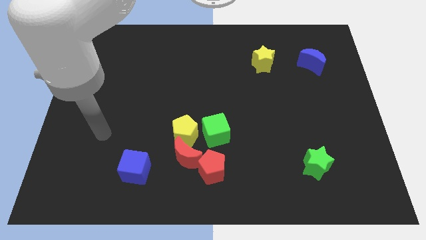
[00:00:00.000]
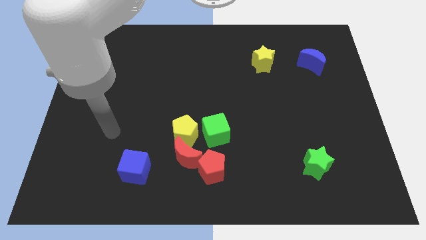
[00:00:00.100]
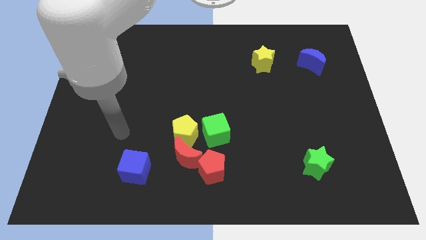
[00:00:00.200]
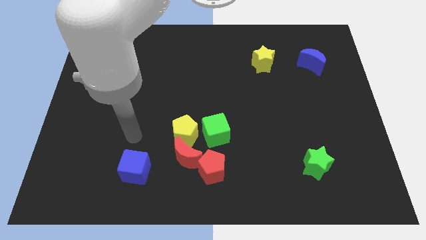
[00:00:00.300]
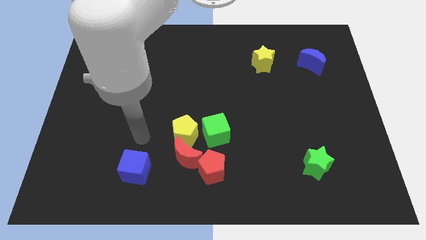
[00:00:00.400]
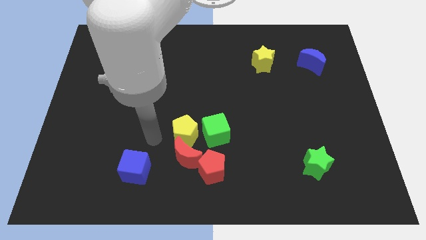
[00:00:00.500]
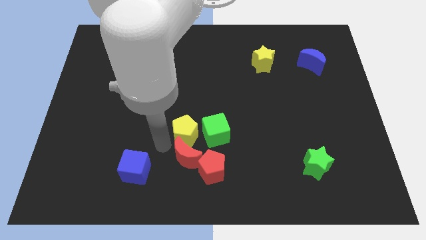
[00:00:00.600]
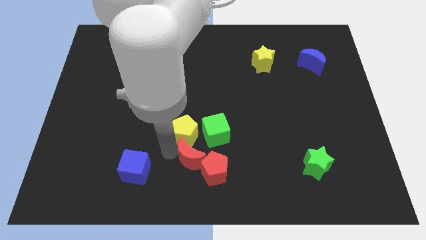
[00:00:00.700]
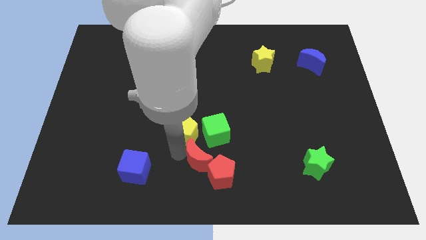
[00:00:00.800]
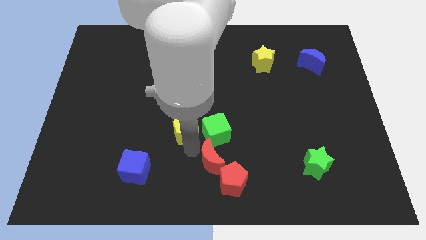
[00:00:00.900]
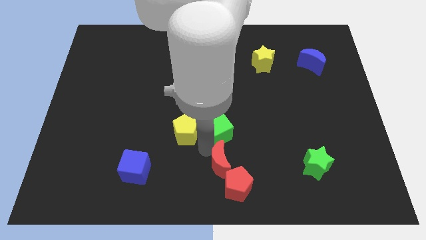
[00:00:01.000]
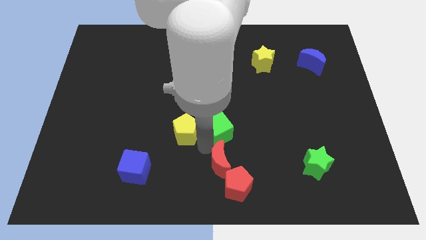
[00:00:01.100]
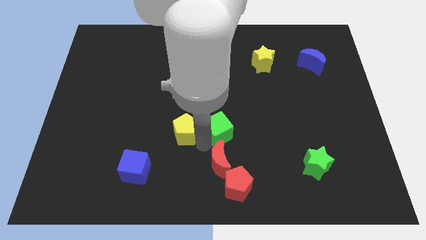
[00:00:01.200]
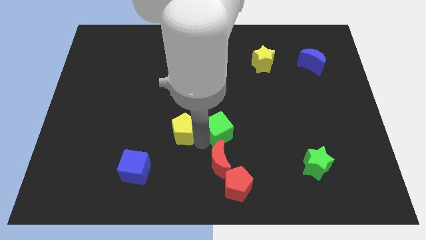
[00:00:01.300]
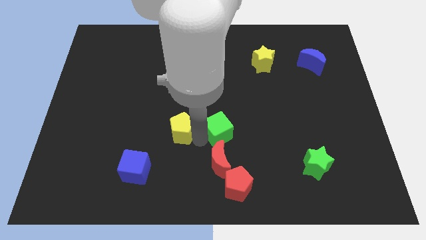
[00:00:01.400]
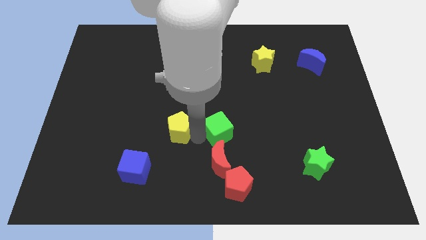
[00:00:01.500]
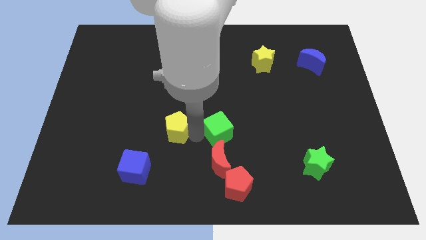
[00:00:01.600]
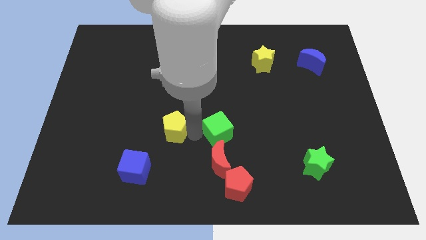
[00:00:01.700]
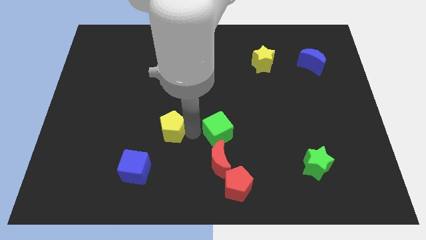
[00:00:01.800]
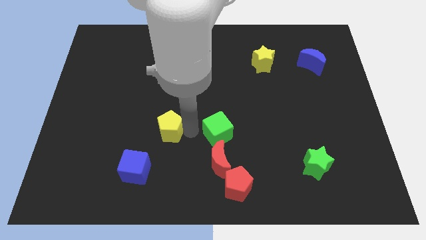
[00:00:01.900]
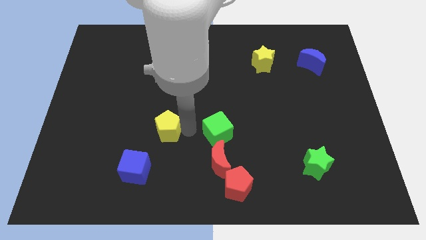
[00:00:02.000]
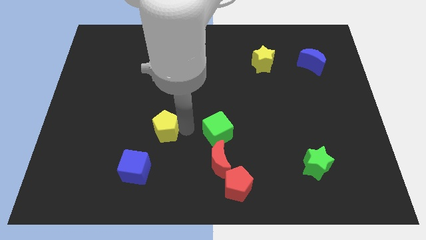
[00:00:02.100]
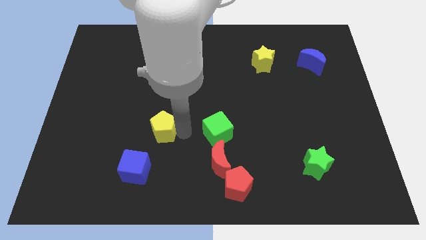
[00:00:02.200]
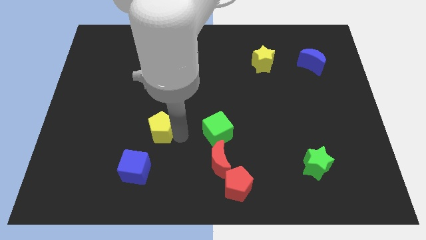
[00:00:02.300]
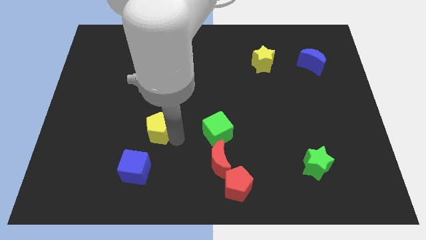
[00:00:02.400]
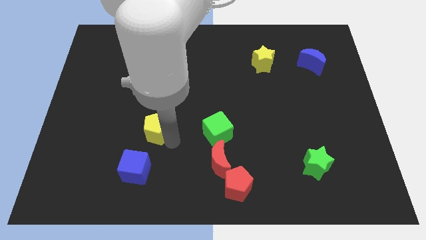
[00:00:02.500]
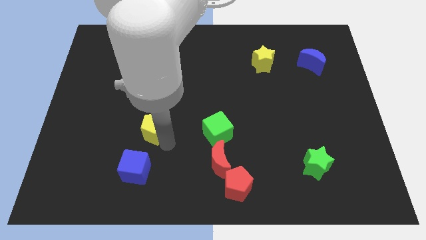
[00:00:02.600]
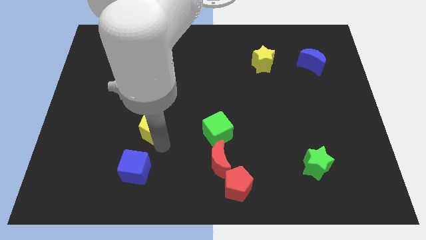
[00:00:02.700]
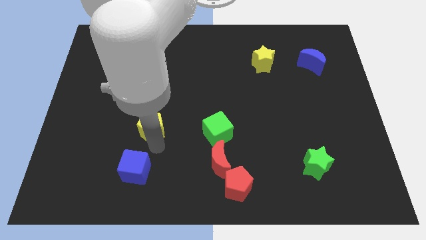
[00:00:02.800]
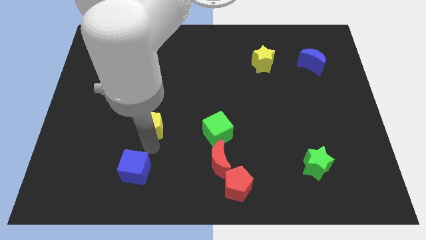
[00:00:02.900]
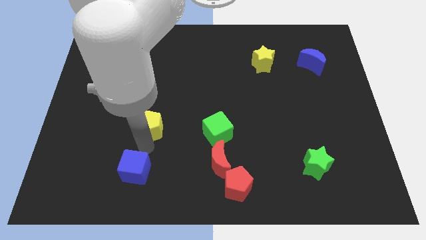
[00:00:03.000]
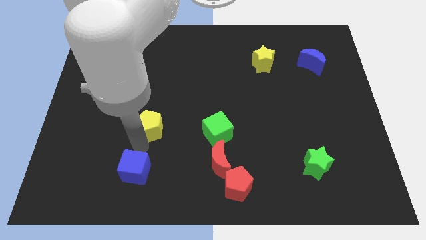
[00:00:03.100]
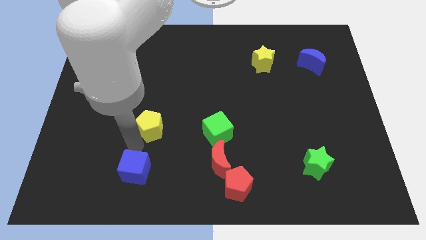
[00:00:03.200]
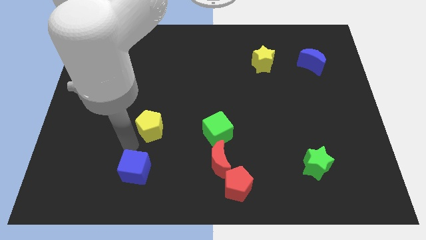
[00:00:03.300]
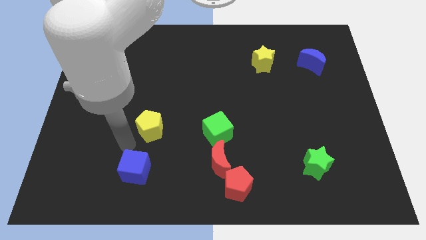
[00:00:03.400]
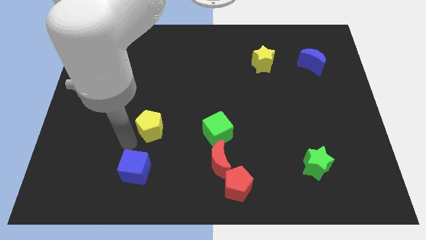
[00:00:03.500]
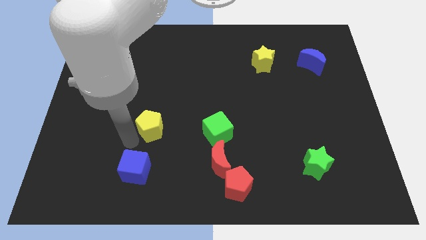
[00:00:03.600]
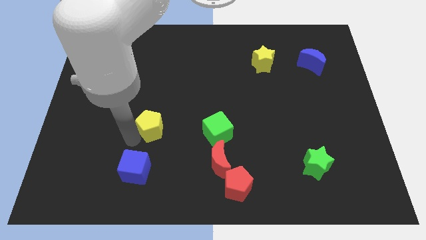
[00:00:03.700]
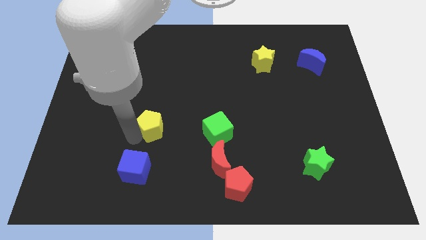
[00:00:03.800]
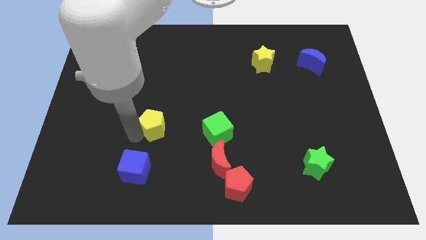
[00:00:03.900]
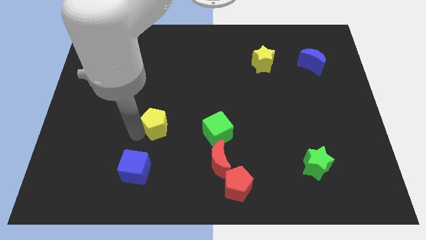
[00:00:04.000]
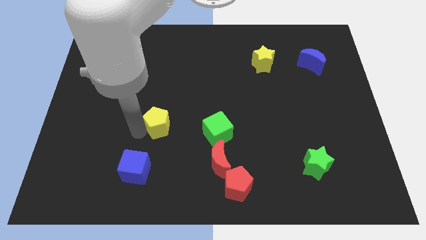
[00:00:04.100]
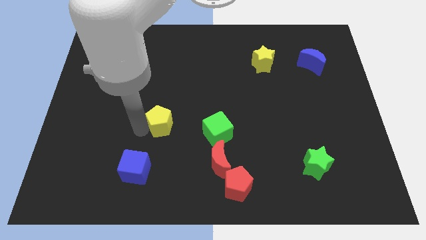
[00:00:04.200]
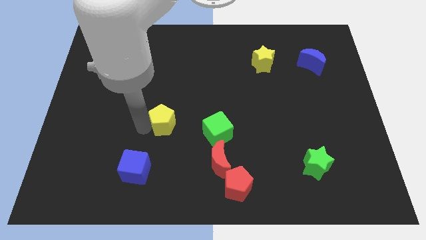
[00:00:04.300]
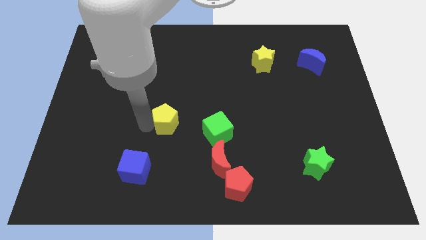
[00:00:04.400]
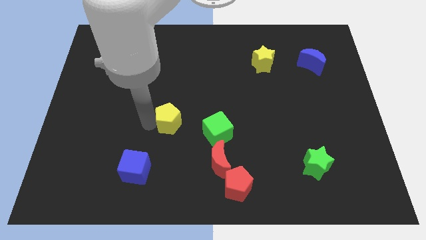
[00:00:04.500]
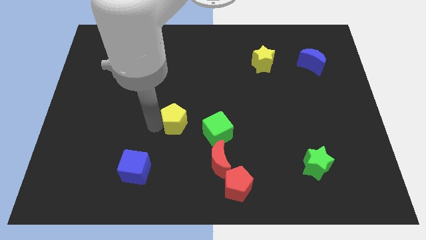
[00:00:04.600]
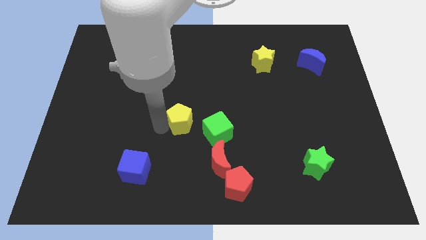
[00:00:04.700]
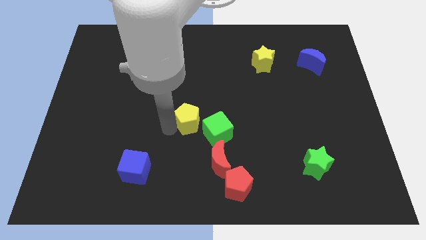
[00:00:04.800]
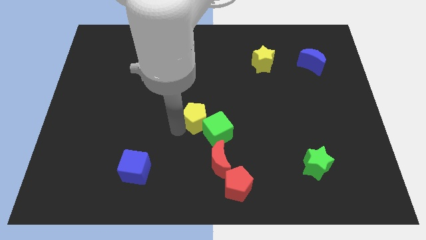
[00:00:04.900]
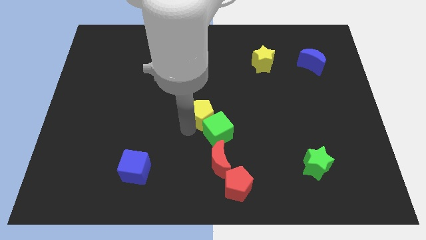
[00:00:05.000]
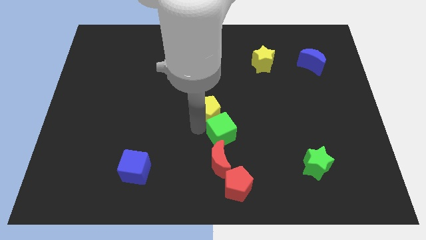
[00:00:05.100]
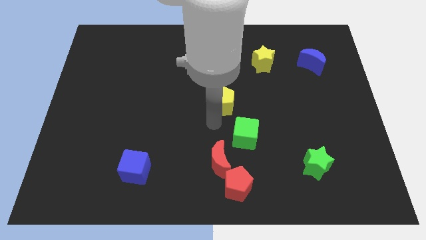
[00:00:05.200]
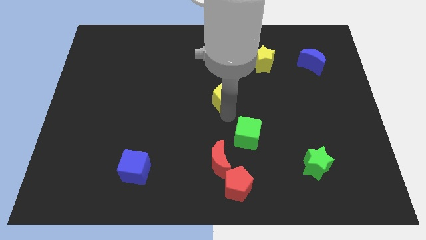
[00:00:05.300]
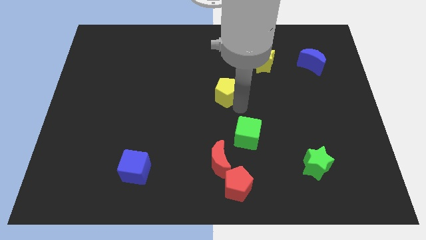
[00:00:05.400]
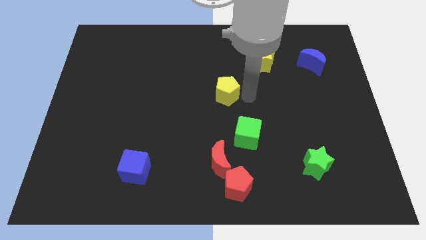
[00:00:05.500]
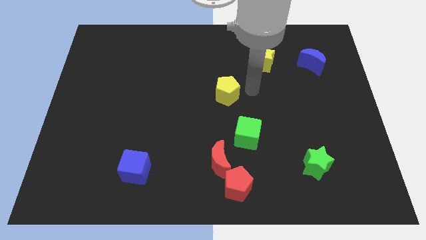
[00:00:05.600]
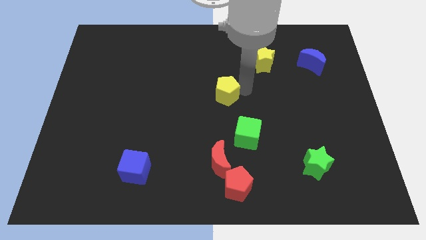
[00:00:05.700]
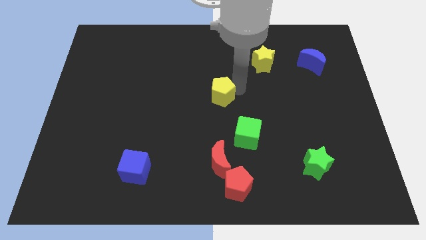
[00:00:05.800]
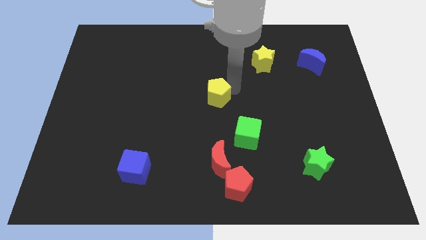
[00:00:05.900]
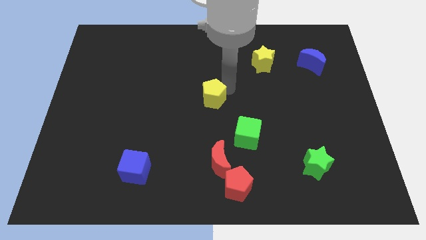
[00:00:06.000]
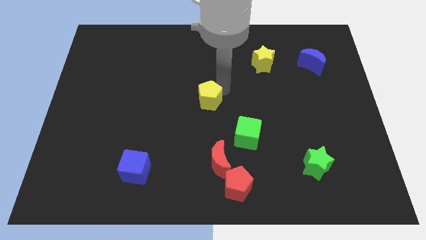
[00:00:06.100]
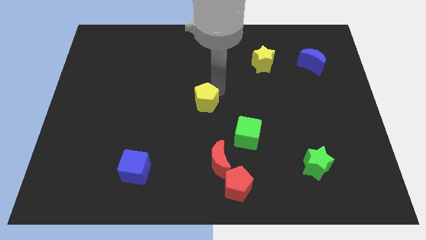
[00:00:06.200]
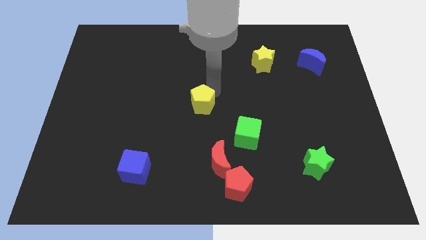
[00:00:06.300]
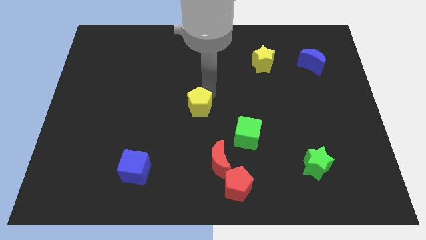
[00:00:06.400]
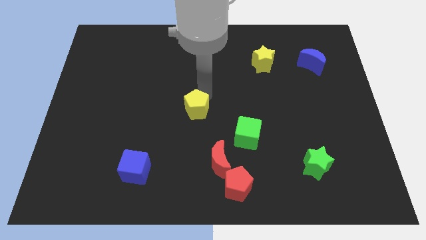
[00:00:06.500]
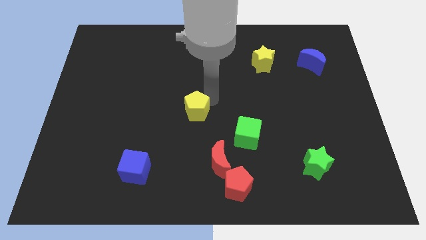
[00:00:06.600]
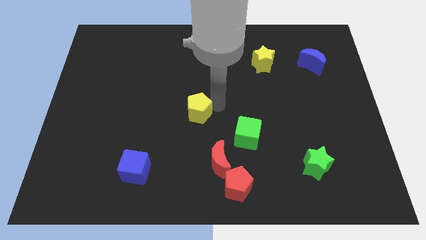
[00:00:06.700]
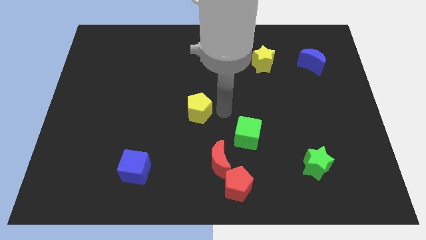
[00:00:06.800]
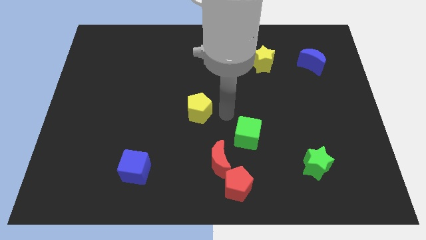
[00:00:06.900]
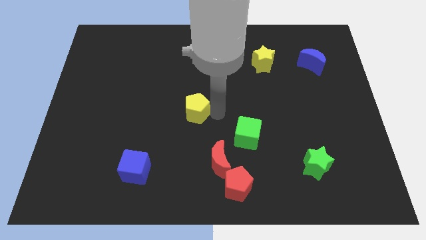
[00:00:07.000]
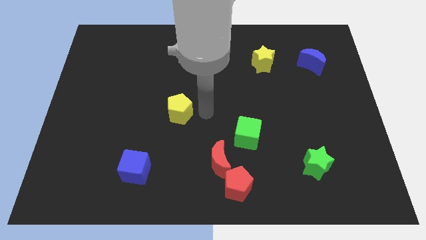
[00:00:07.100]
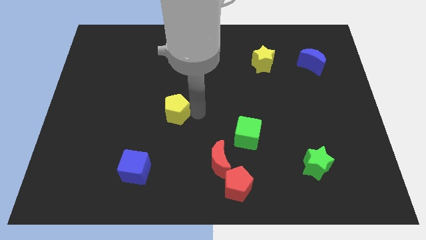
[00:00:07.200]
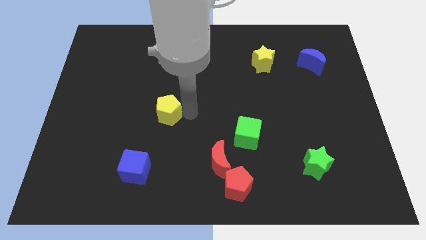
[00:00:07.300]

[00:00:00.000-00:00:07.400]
slightly slide the yellow pentagon up and left diagonally

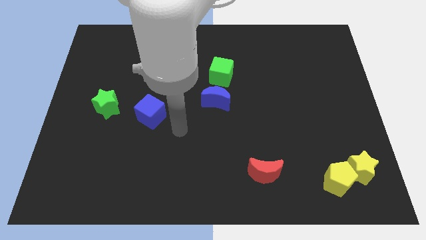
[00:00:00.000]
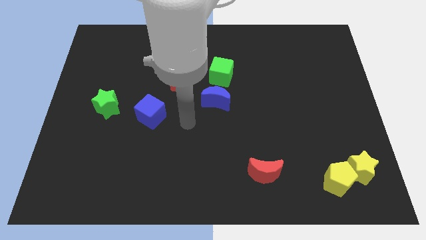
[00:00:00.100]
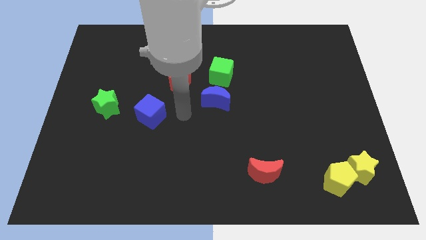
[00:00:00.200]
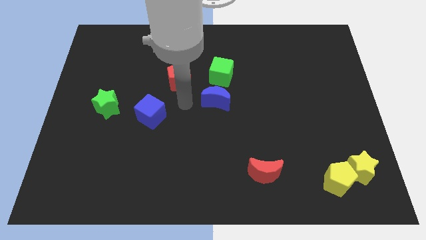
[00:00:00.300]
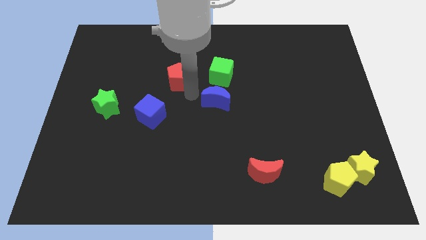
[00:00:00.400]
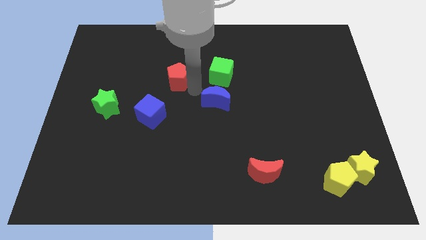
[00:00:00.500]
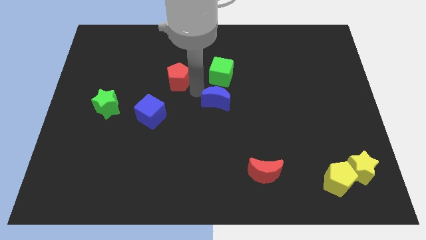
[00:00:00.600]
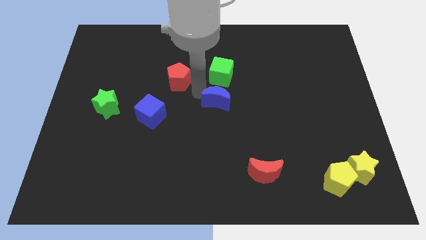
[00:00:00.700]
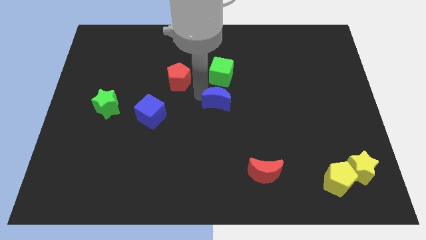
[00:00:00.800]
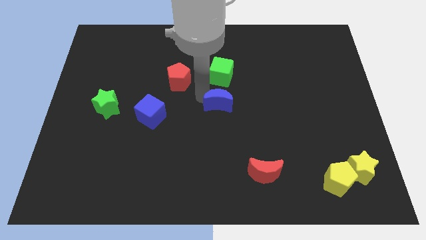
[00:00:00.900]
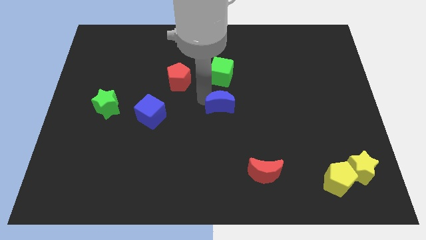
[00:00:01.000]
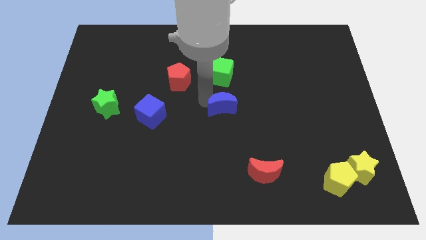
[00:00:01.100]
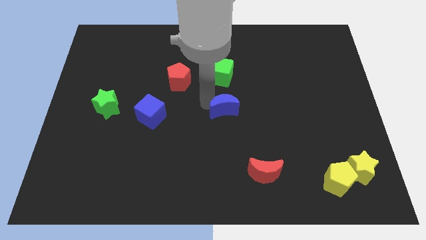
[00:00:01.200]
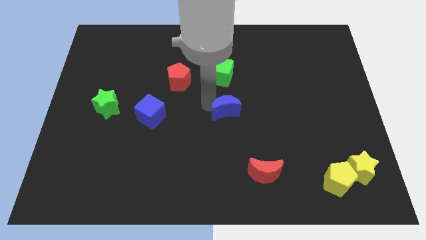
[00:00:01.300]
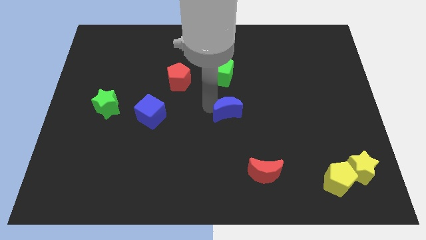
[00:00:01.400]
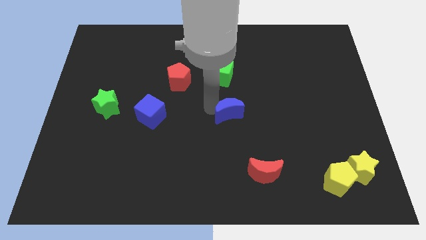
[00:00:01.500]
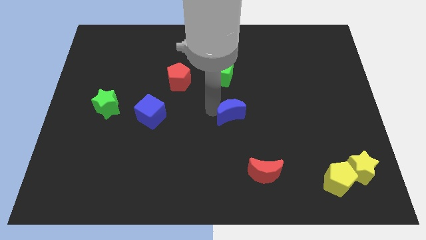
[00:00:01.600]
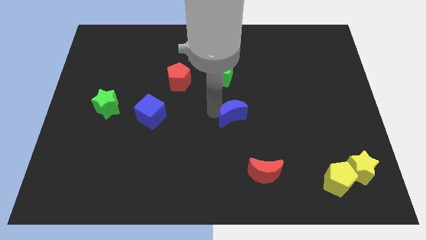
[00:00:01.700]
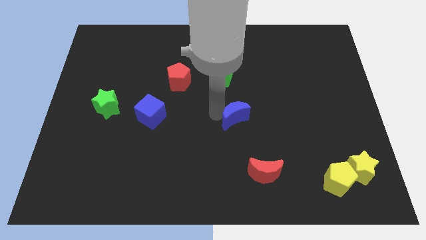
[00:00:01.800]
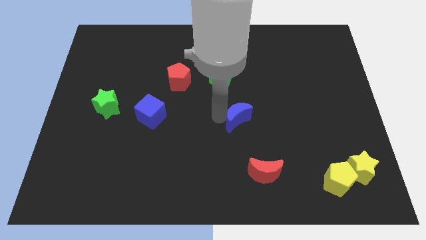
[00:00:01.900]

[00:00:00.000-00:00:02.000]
slightly slide the blue moon down and to the right
